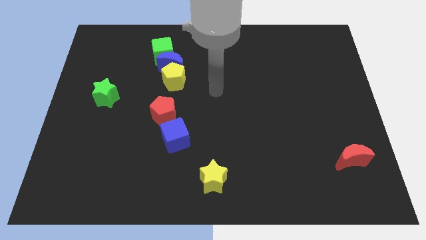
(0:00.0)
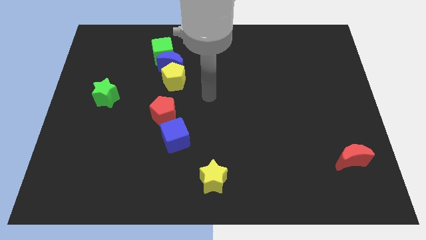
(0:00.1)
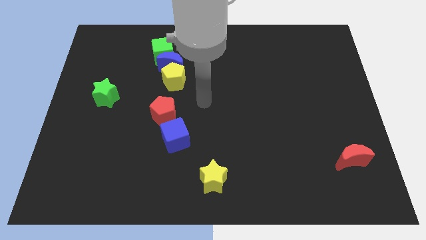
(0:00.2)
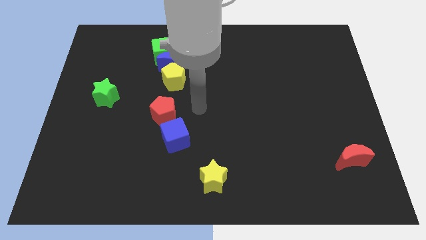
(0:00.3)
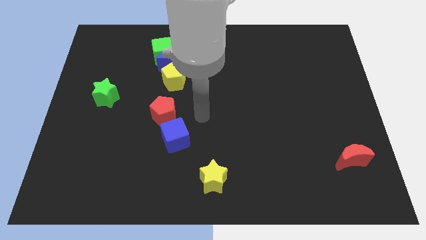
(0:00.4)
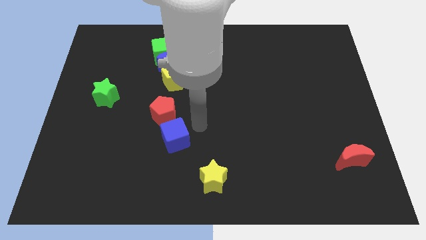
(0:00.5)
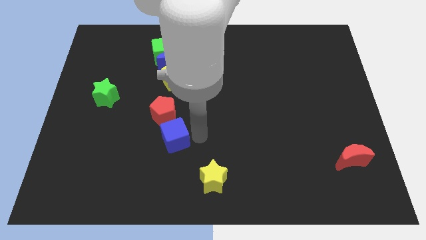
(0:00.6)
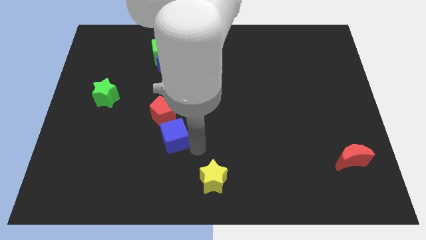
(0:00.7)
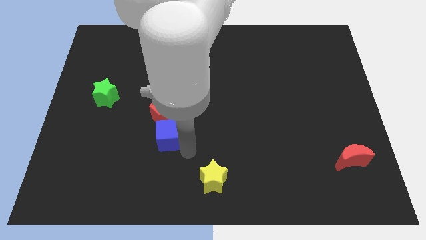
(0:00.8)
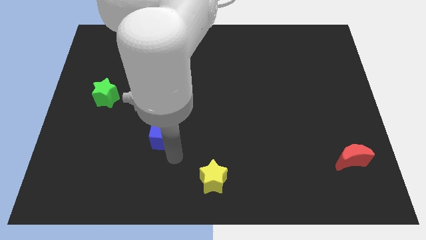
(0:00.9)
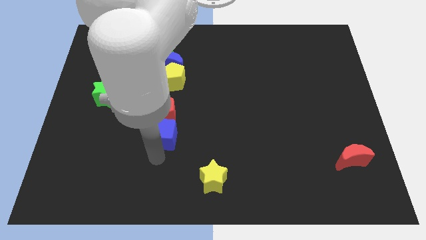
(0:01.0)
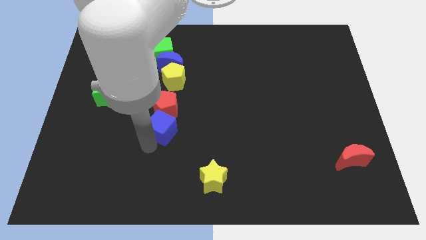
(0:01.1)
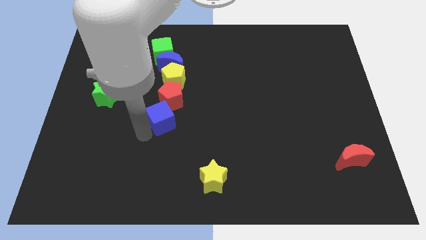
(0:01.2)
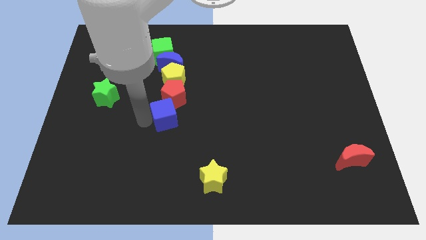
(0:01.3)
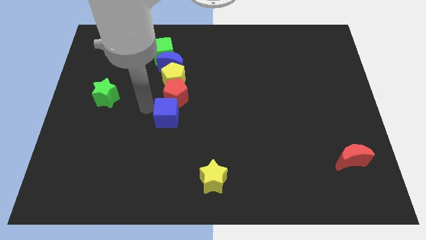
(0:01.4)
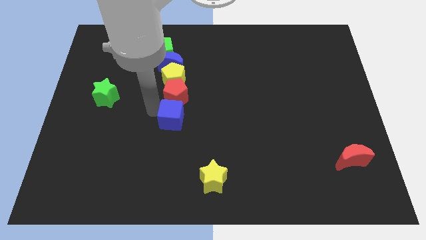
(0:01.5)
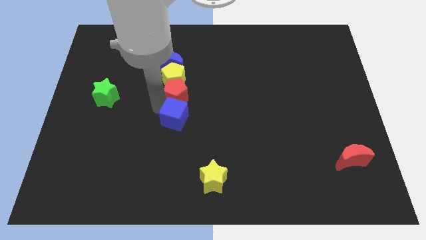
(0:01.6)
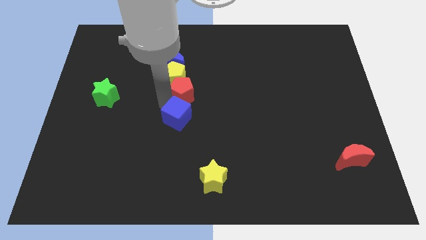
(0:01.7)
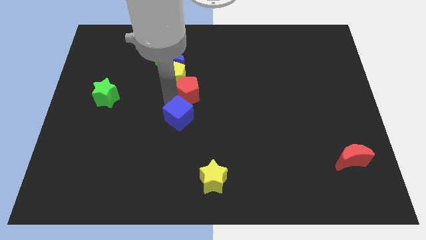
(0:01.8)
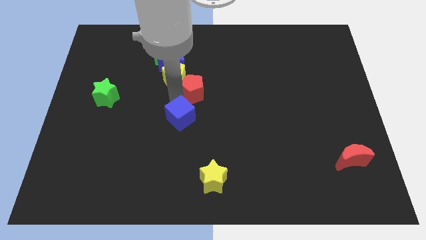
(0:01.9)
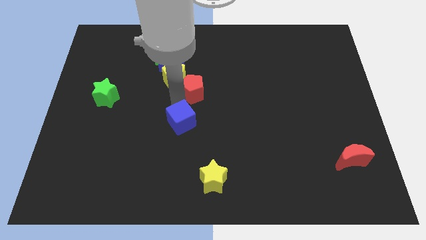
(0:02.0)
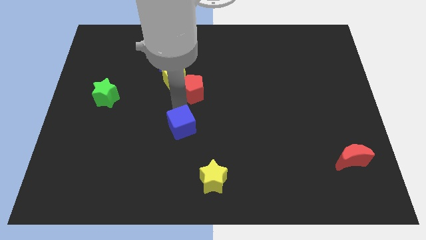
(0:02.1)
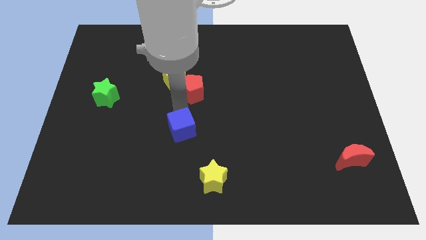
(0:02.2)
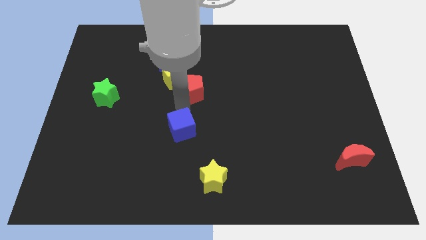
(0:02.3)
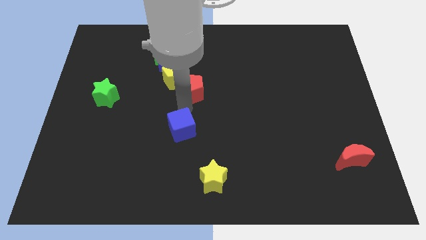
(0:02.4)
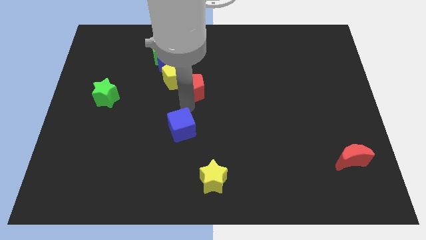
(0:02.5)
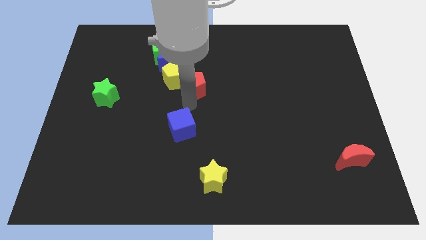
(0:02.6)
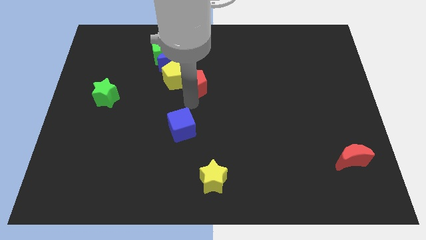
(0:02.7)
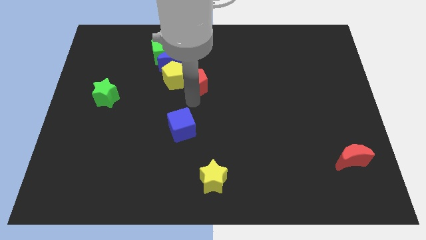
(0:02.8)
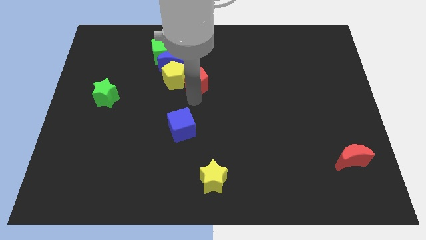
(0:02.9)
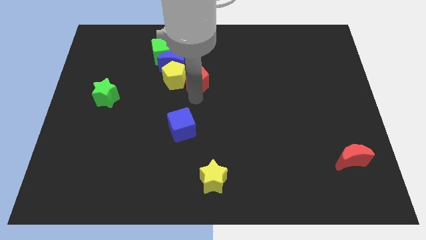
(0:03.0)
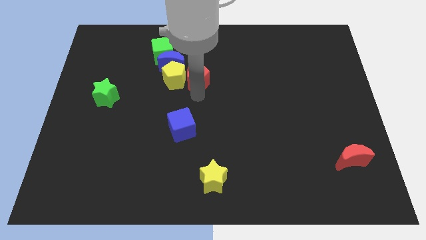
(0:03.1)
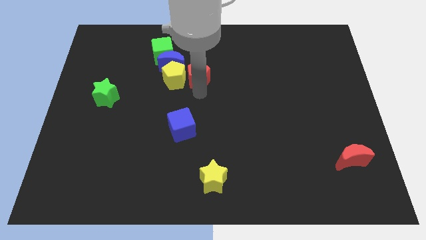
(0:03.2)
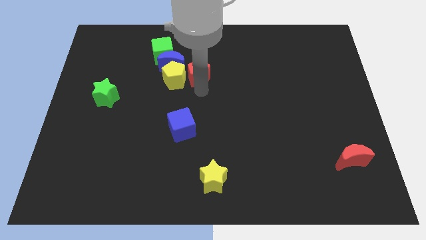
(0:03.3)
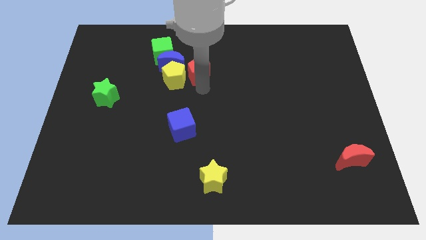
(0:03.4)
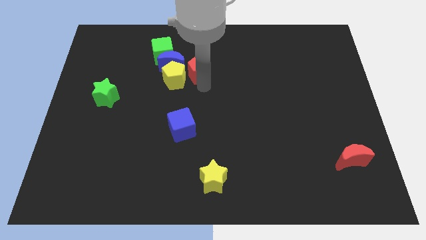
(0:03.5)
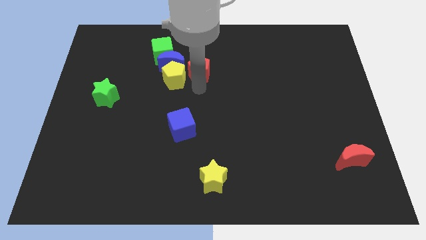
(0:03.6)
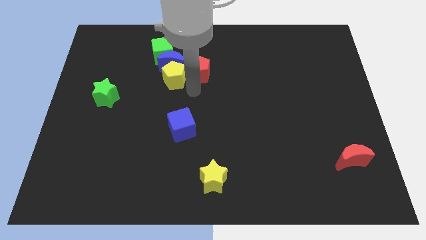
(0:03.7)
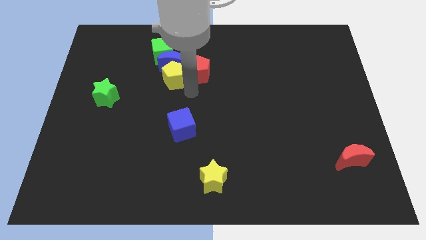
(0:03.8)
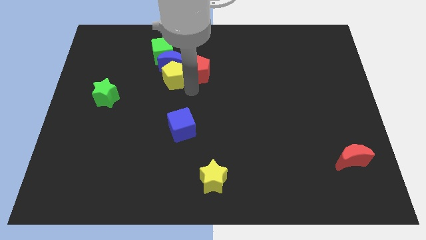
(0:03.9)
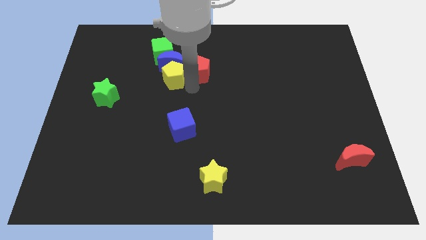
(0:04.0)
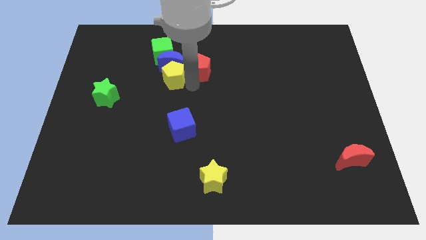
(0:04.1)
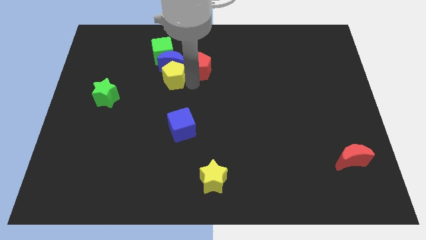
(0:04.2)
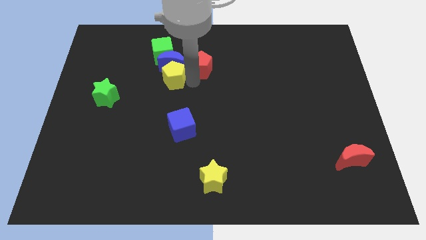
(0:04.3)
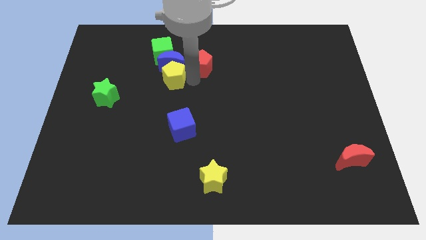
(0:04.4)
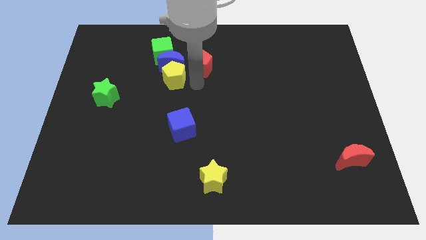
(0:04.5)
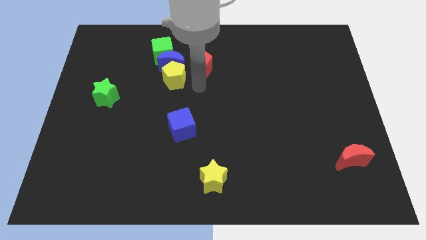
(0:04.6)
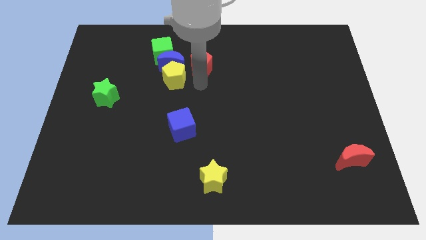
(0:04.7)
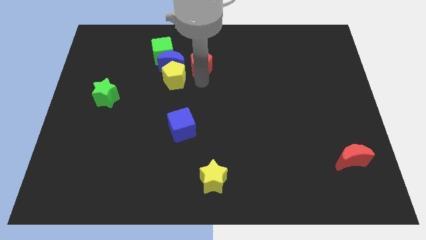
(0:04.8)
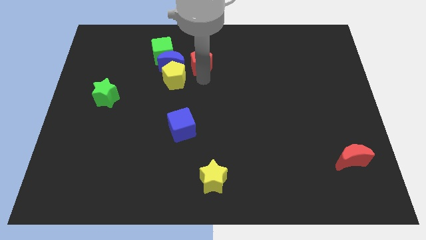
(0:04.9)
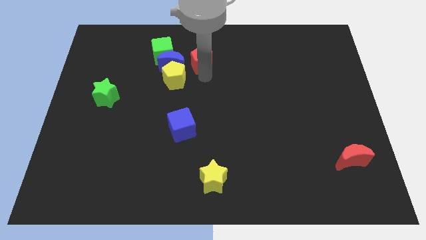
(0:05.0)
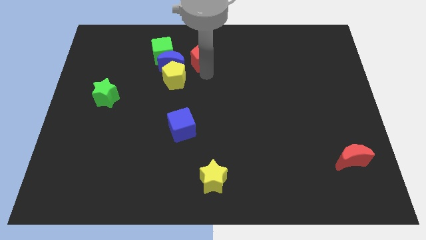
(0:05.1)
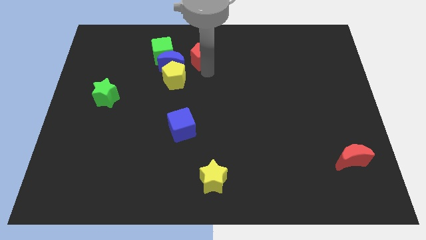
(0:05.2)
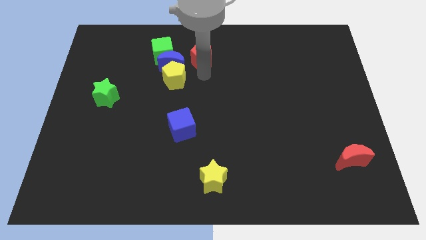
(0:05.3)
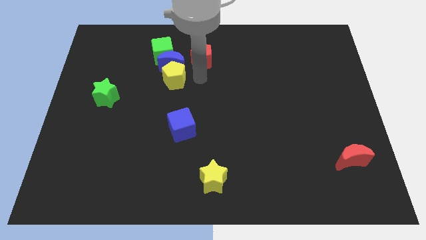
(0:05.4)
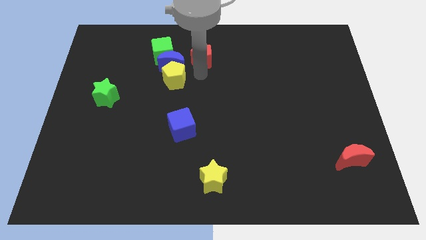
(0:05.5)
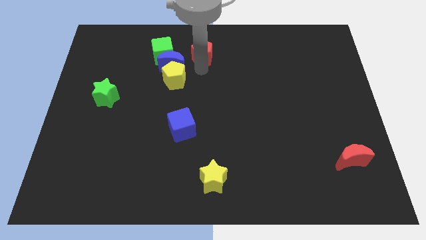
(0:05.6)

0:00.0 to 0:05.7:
put the red pentagon to the top
